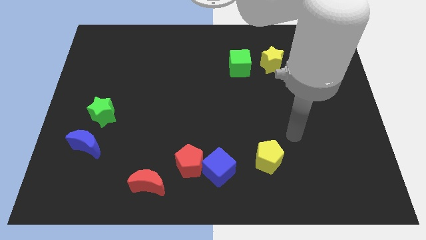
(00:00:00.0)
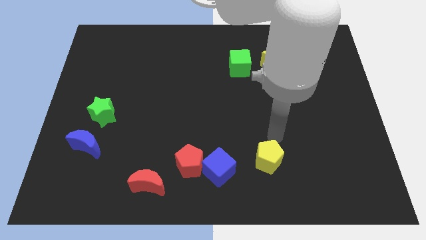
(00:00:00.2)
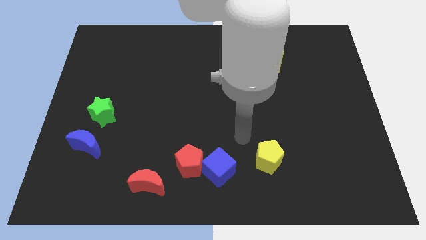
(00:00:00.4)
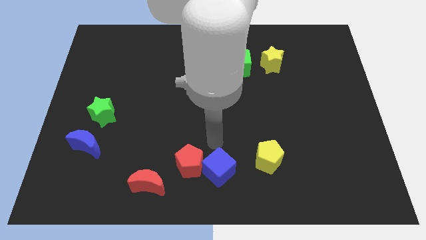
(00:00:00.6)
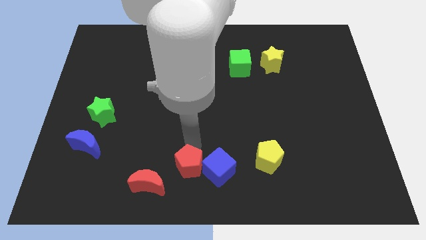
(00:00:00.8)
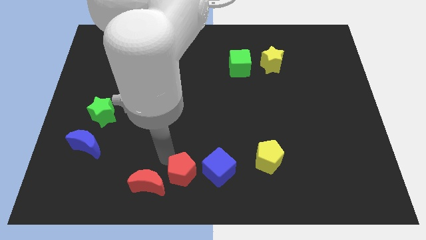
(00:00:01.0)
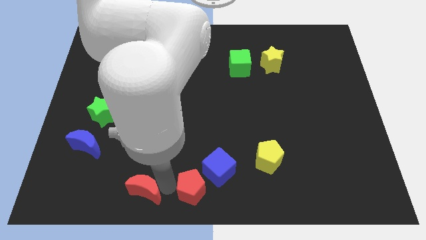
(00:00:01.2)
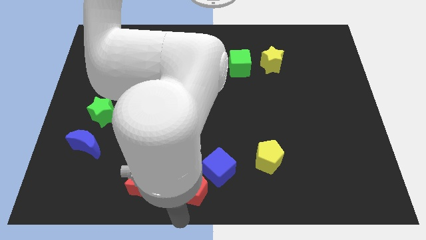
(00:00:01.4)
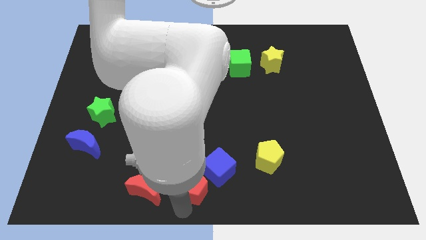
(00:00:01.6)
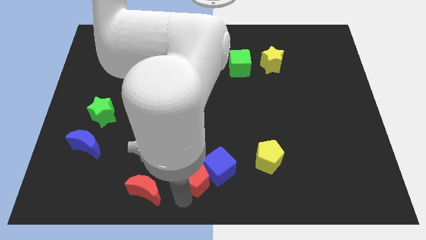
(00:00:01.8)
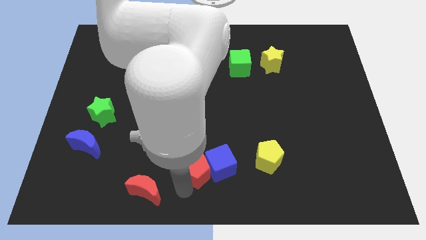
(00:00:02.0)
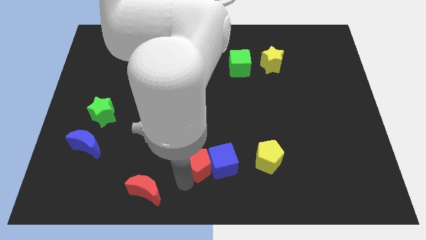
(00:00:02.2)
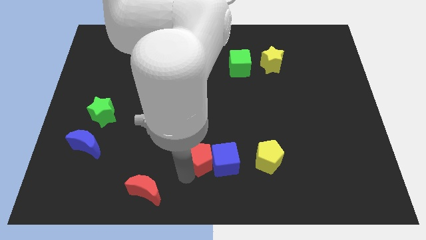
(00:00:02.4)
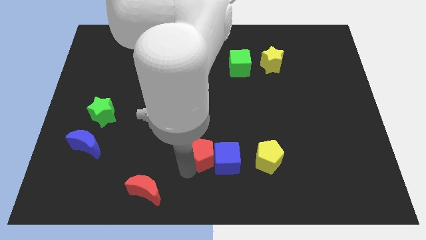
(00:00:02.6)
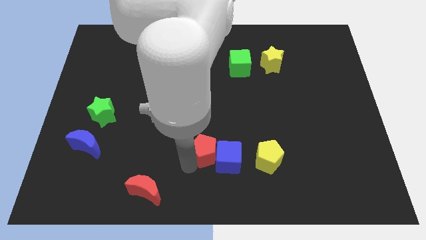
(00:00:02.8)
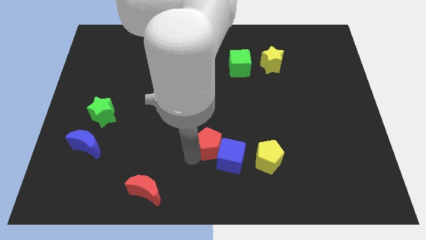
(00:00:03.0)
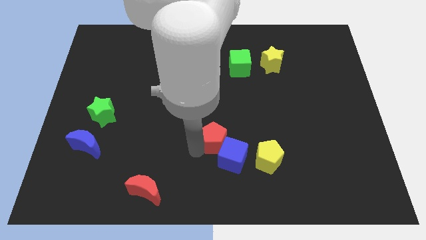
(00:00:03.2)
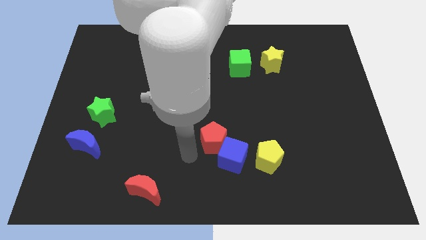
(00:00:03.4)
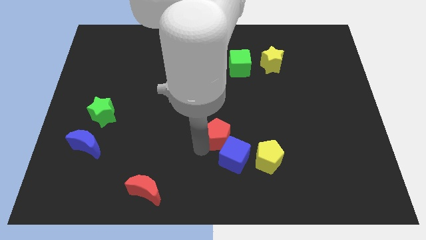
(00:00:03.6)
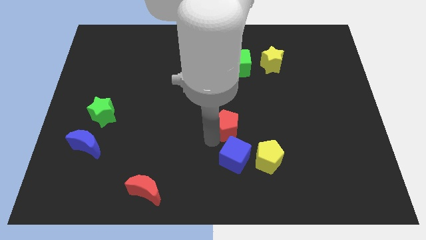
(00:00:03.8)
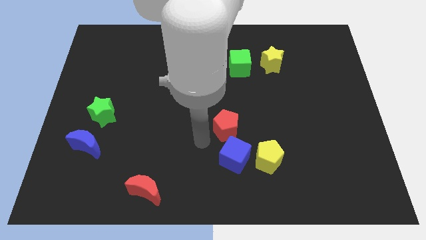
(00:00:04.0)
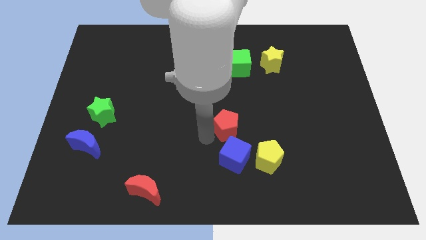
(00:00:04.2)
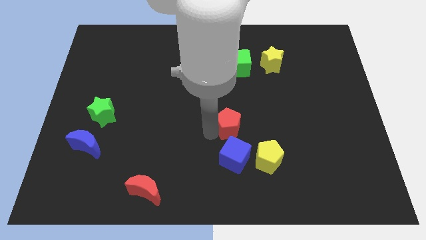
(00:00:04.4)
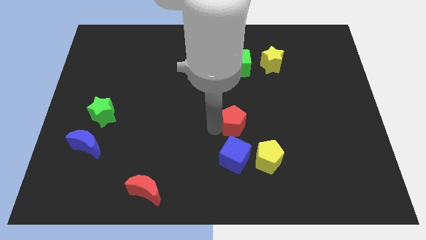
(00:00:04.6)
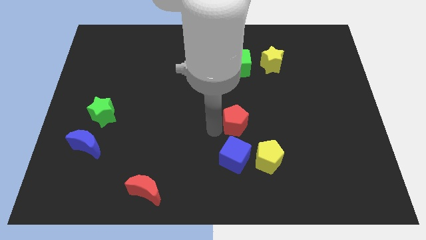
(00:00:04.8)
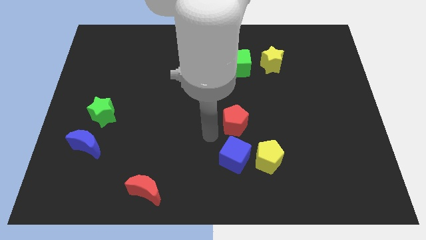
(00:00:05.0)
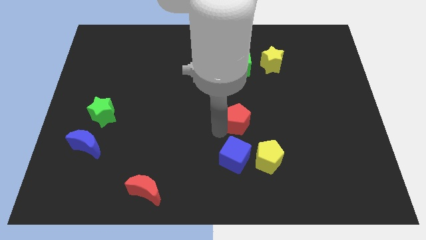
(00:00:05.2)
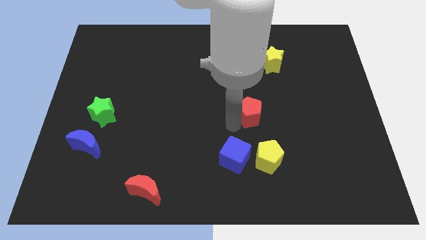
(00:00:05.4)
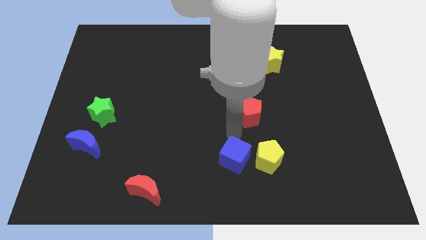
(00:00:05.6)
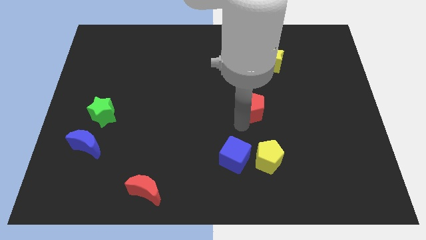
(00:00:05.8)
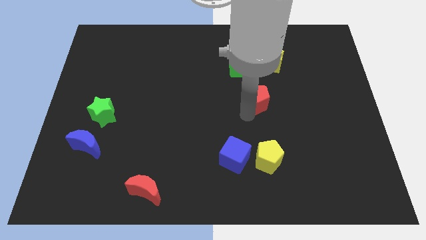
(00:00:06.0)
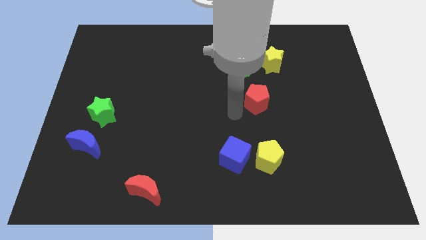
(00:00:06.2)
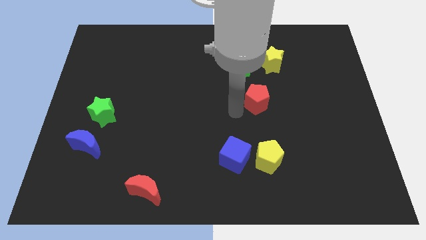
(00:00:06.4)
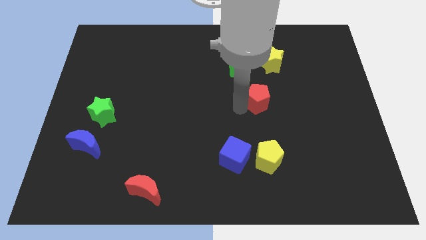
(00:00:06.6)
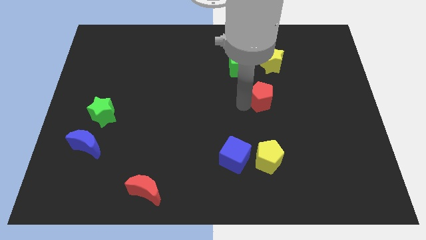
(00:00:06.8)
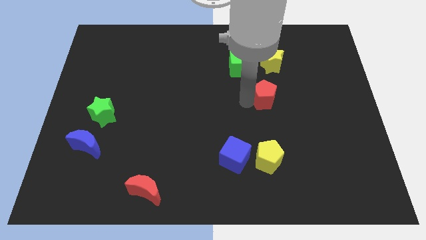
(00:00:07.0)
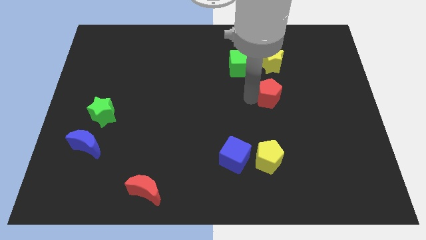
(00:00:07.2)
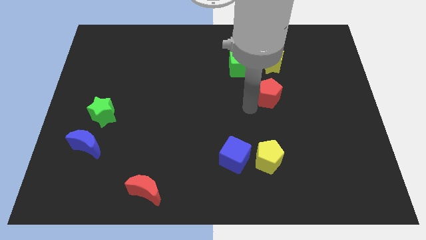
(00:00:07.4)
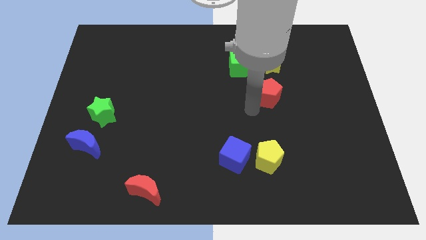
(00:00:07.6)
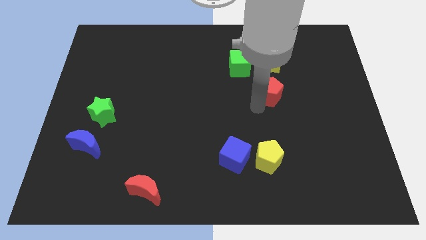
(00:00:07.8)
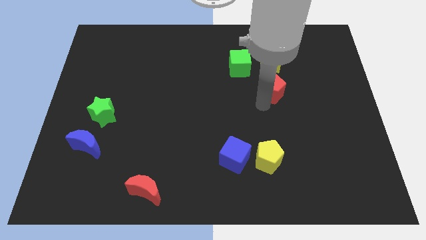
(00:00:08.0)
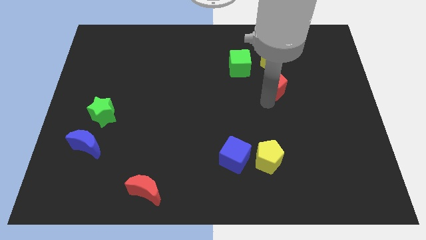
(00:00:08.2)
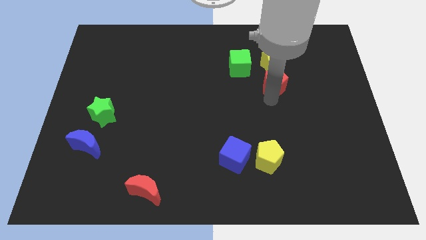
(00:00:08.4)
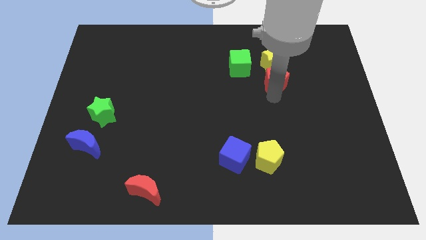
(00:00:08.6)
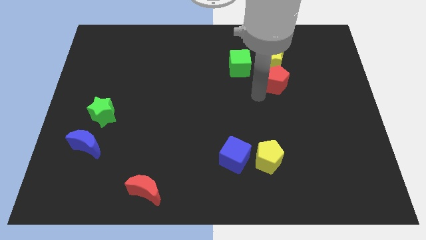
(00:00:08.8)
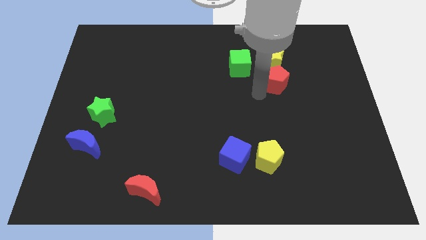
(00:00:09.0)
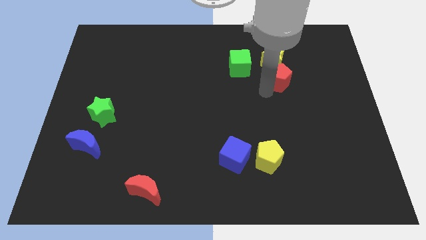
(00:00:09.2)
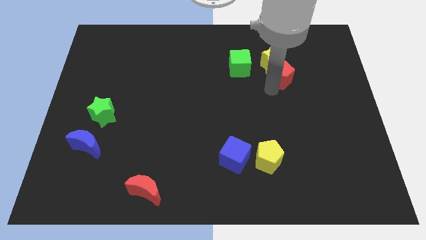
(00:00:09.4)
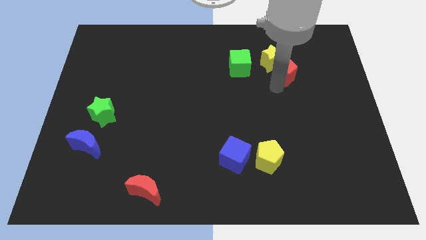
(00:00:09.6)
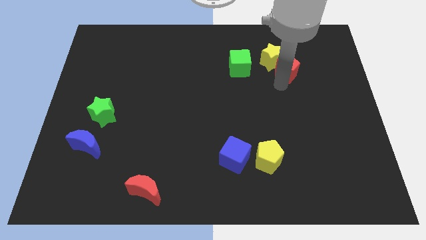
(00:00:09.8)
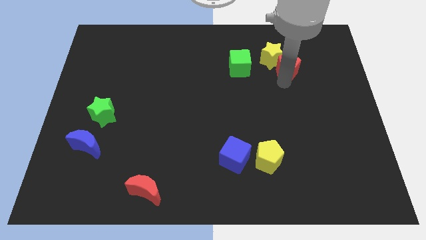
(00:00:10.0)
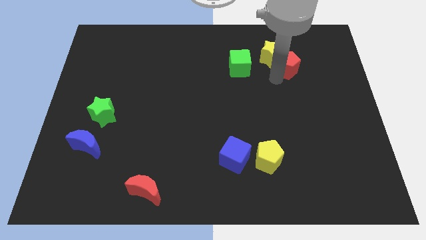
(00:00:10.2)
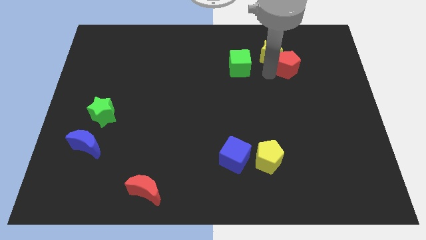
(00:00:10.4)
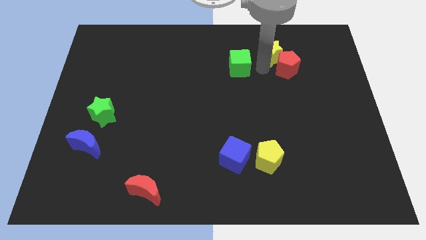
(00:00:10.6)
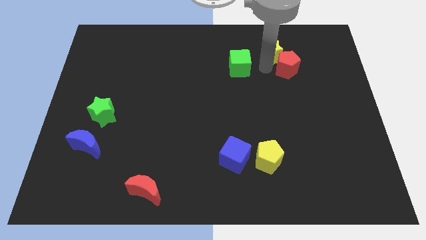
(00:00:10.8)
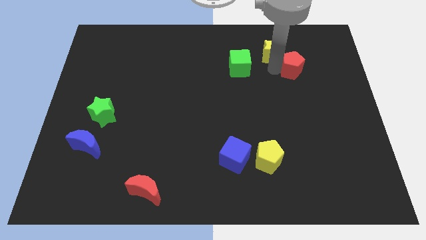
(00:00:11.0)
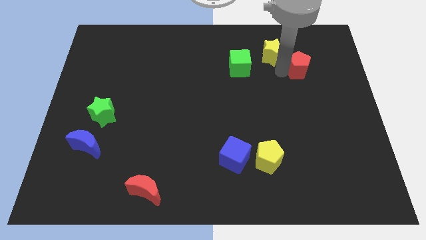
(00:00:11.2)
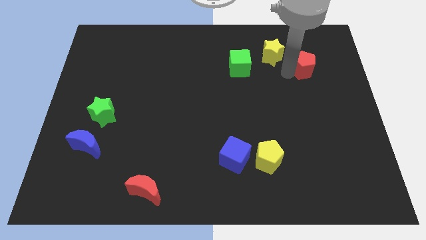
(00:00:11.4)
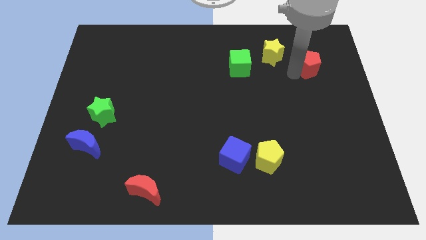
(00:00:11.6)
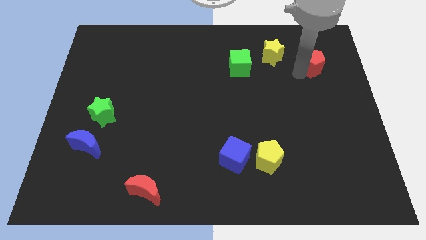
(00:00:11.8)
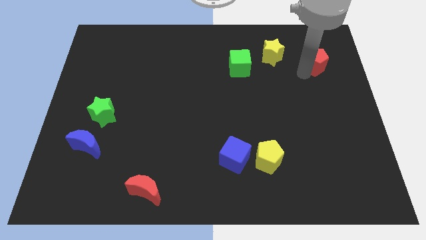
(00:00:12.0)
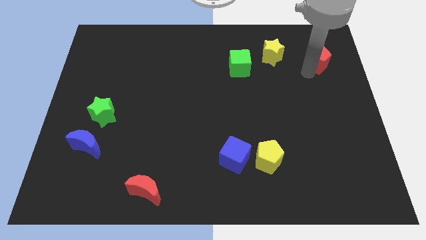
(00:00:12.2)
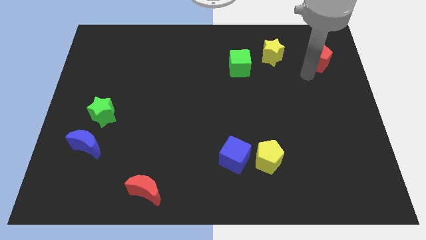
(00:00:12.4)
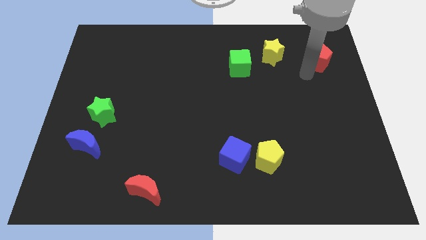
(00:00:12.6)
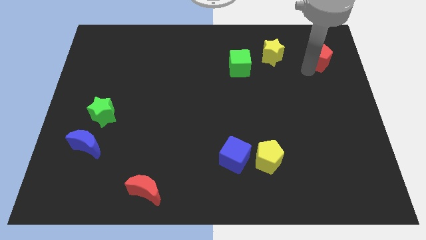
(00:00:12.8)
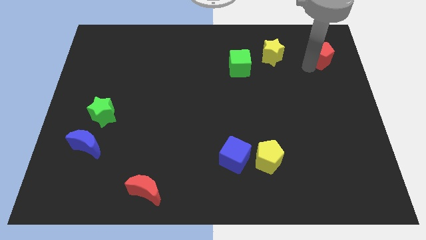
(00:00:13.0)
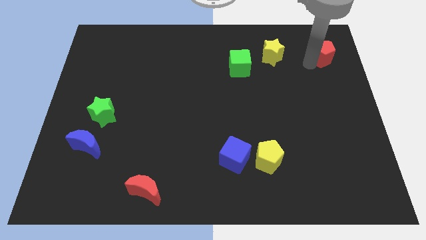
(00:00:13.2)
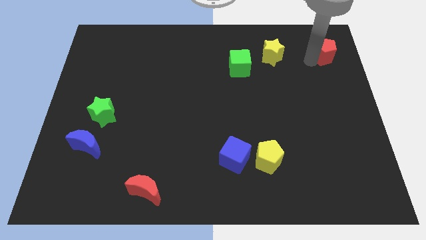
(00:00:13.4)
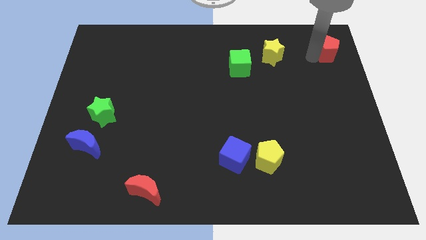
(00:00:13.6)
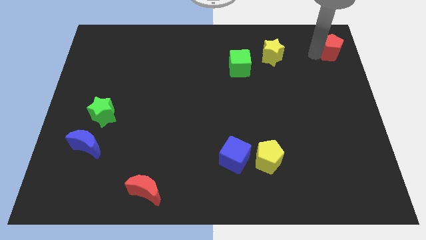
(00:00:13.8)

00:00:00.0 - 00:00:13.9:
push the red pentagon to the top right
